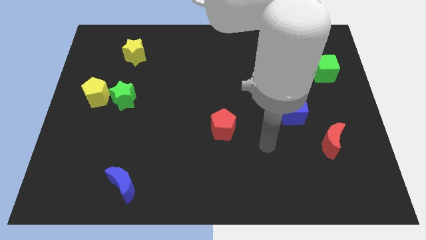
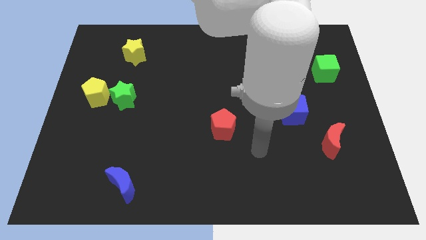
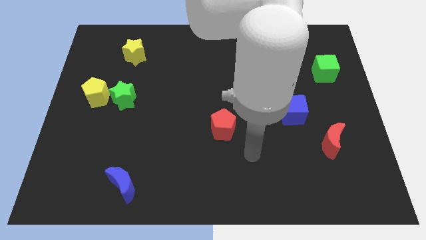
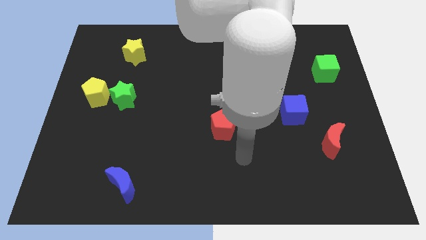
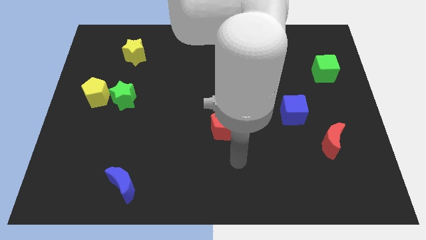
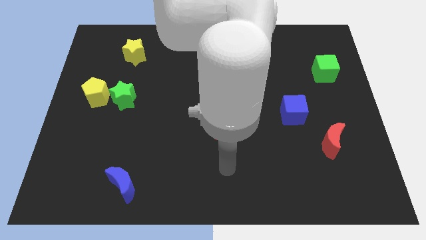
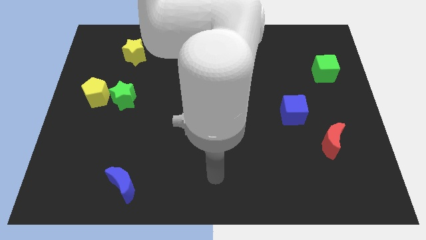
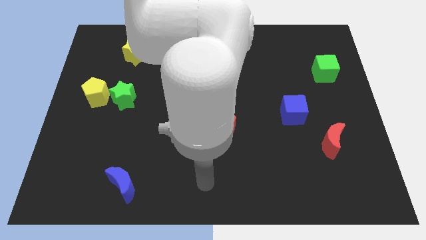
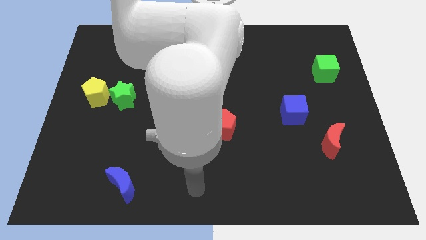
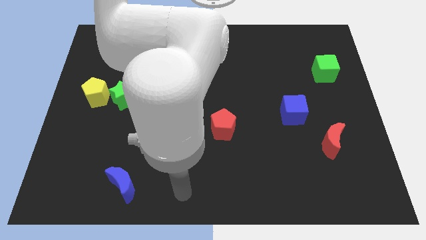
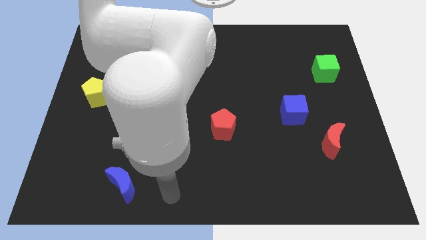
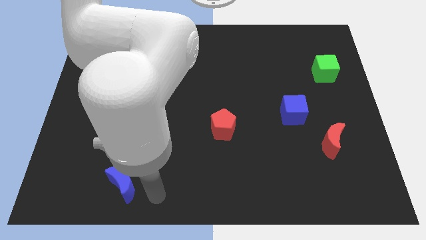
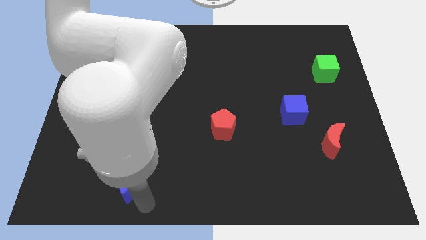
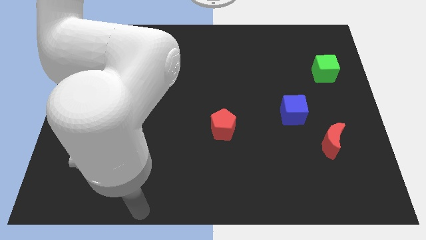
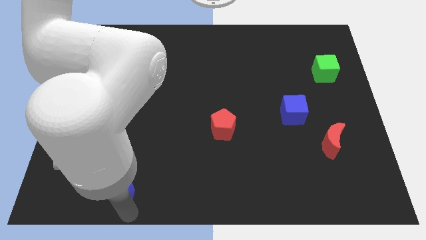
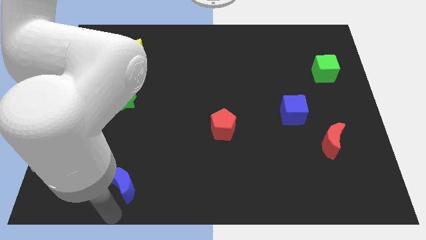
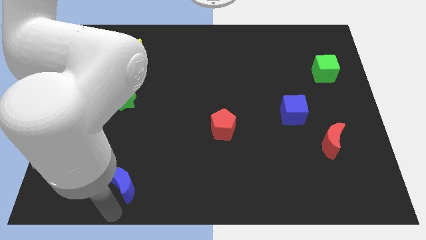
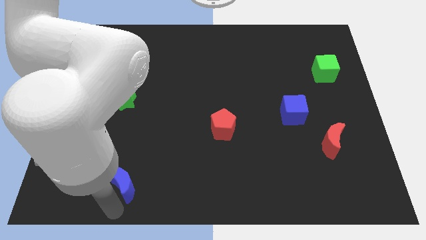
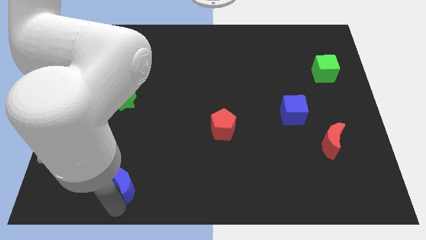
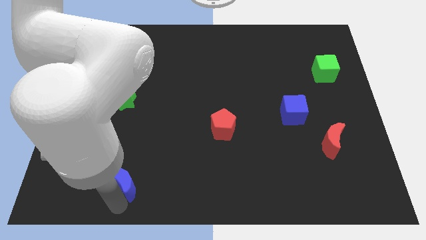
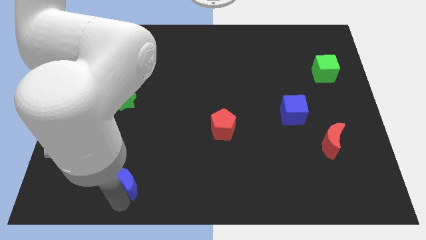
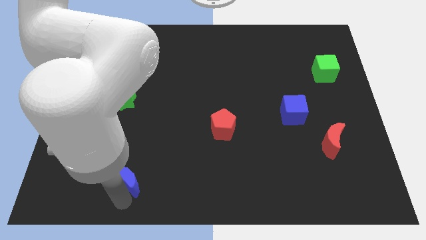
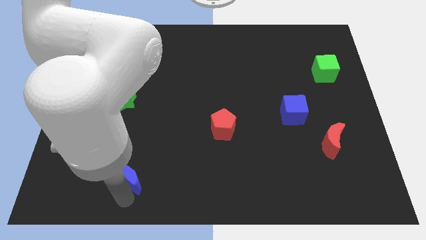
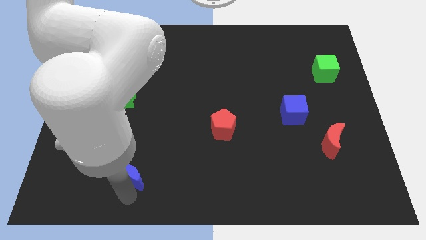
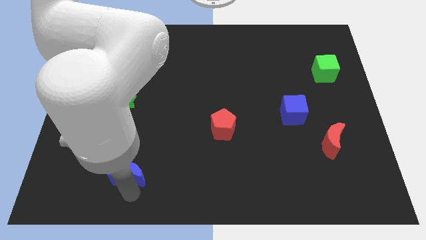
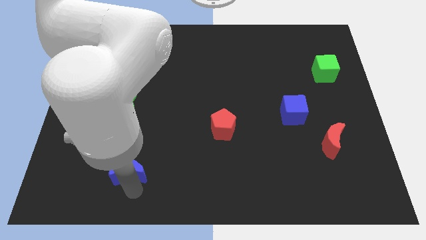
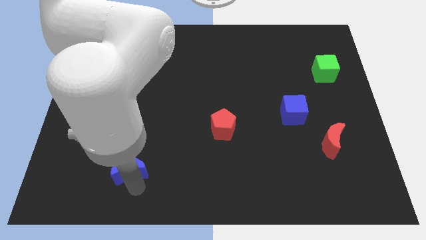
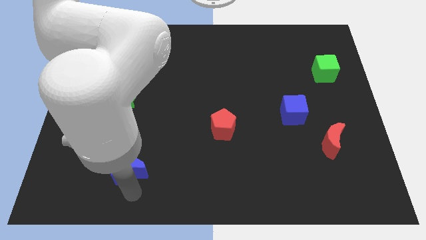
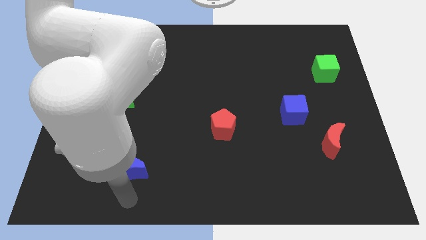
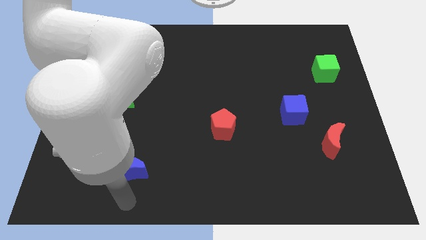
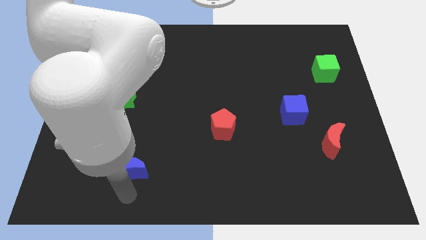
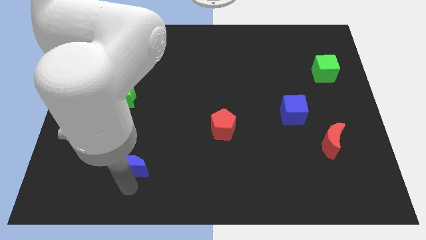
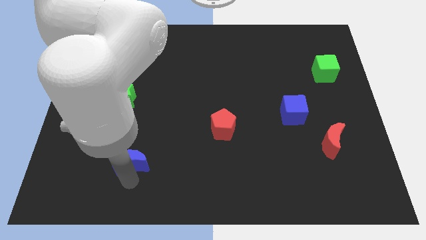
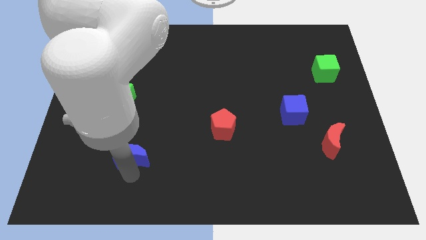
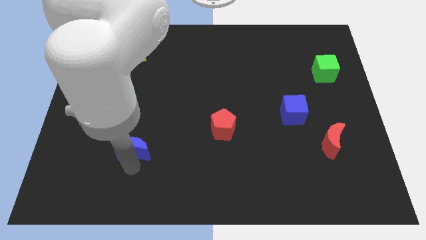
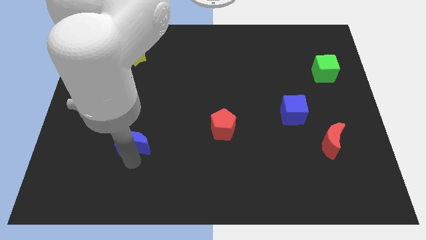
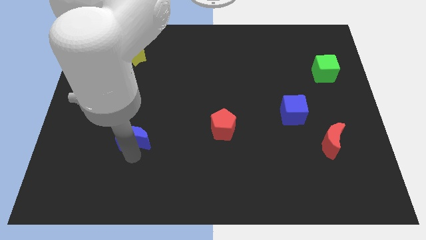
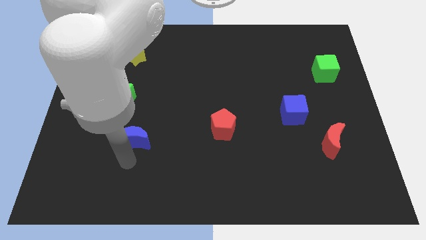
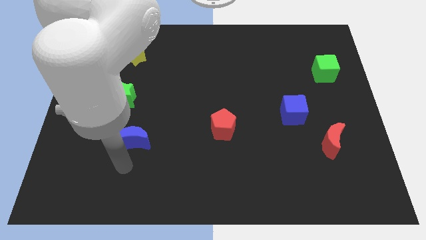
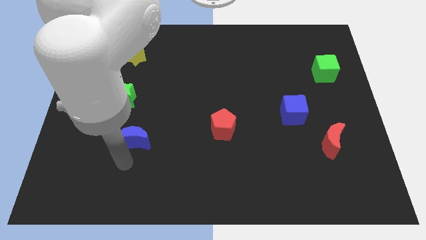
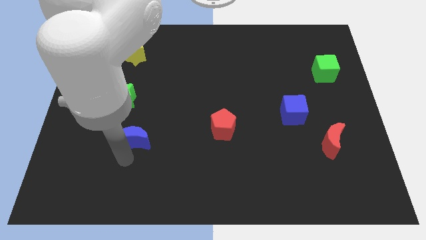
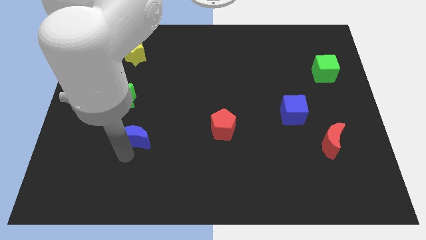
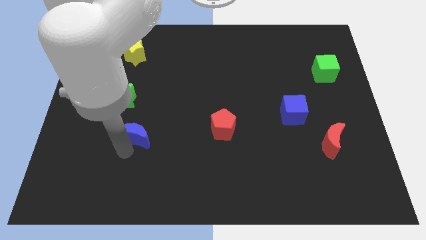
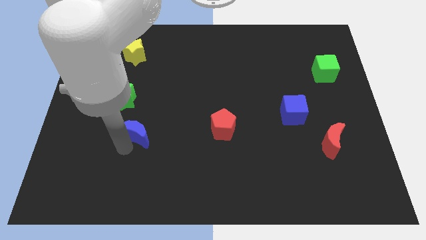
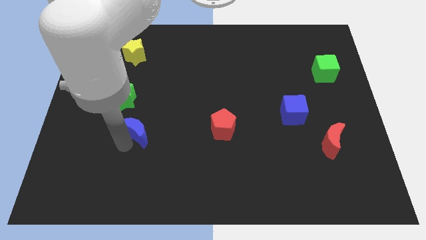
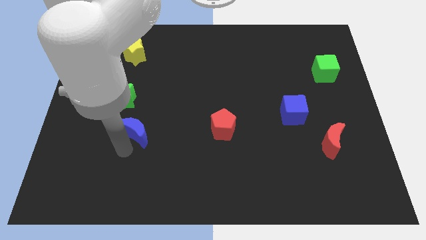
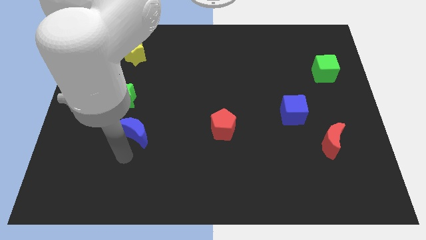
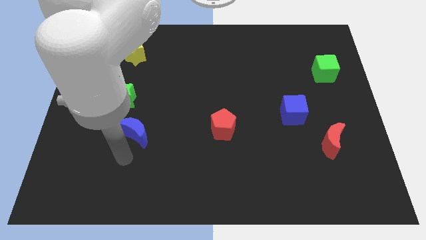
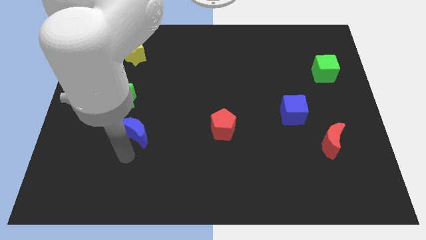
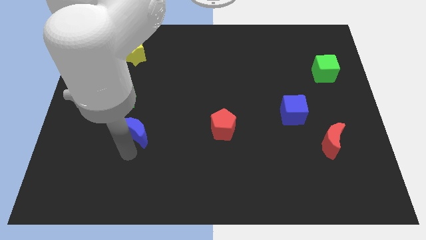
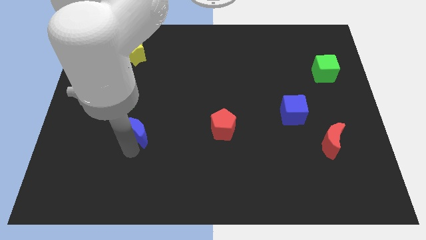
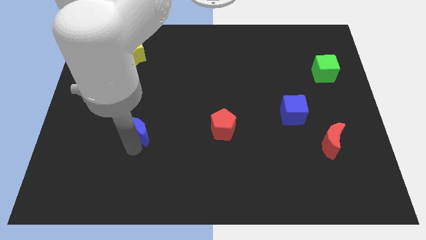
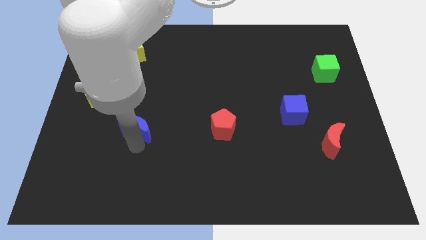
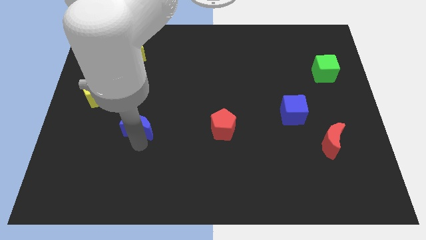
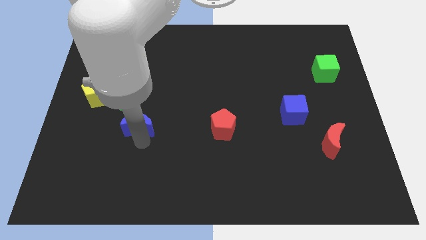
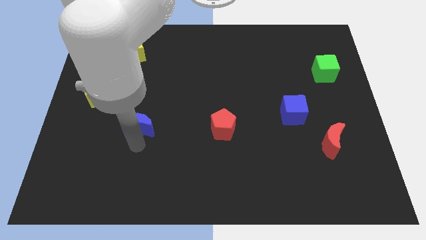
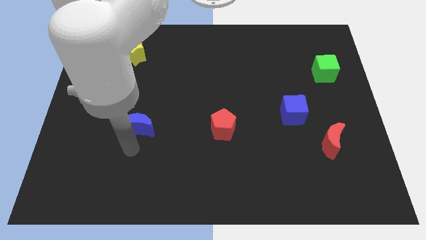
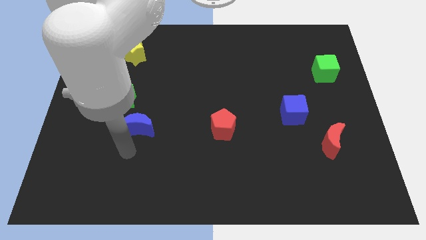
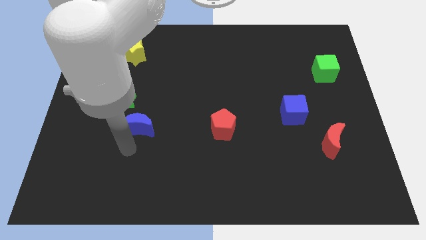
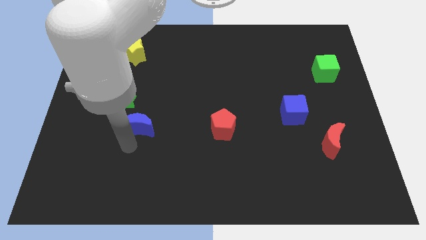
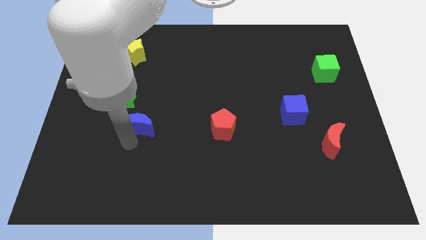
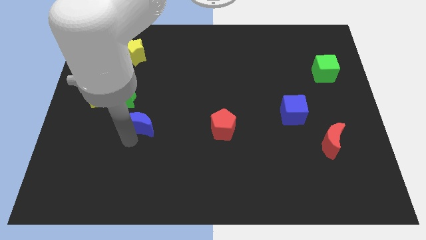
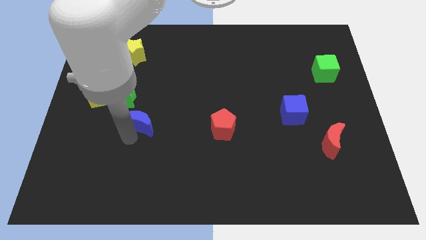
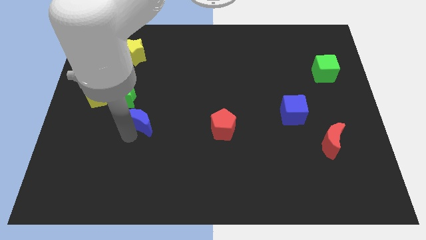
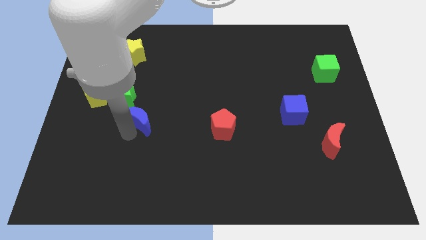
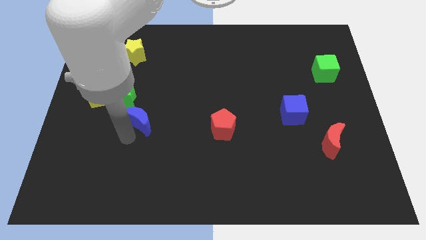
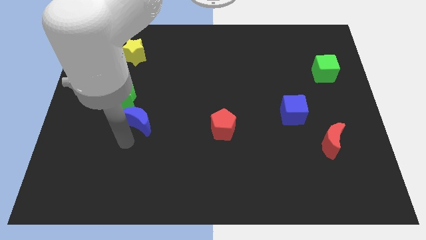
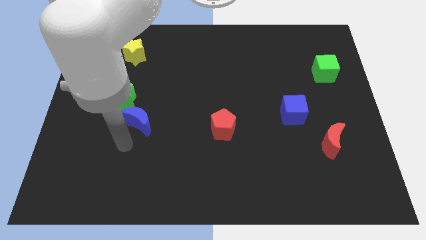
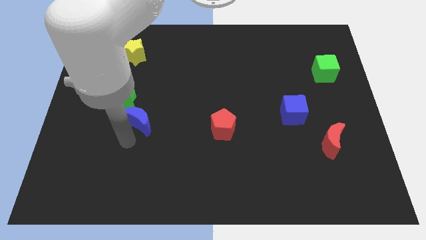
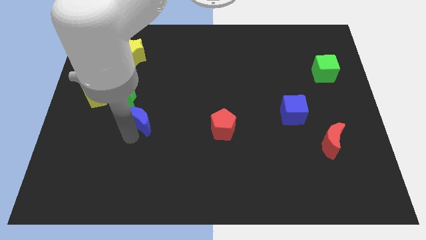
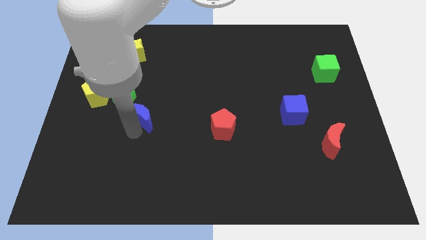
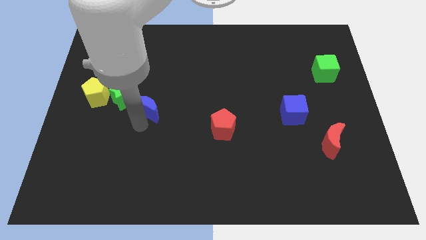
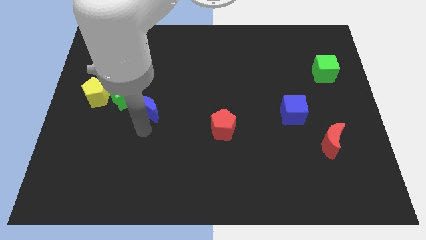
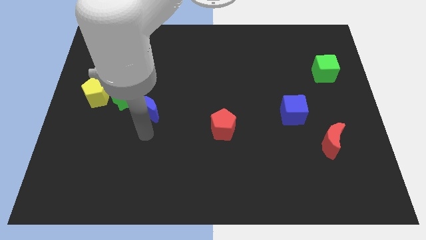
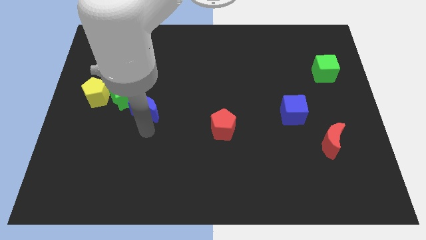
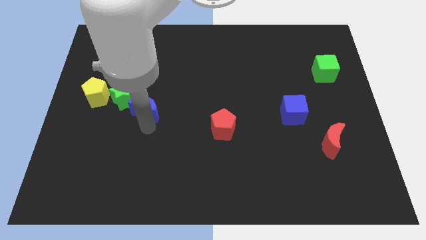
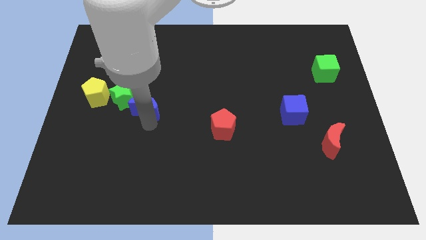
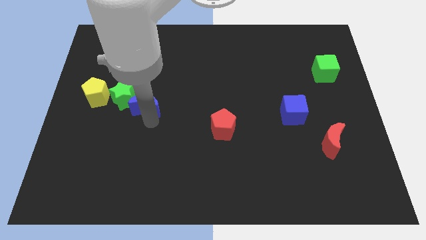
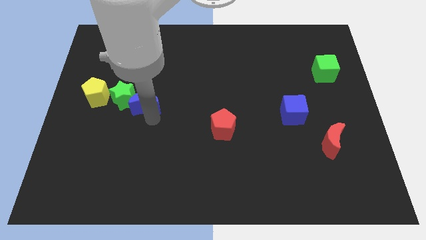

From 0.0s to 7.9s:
push the blue moon up
